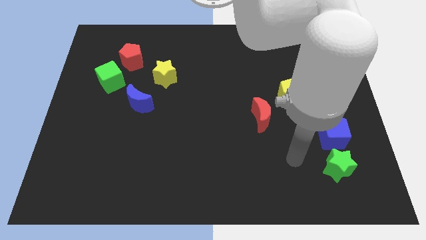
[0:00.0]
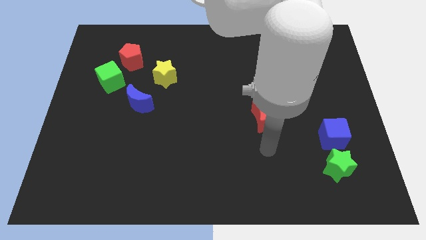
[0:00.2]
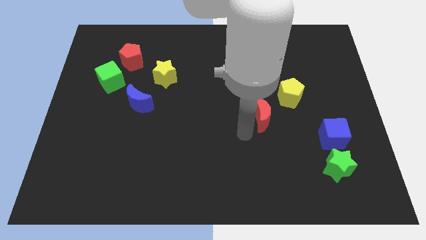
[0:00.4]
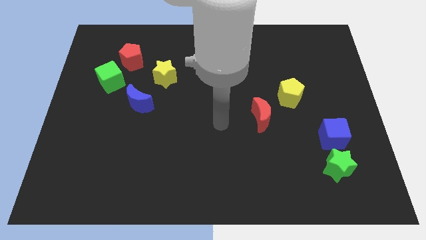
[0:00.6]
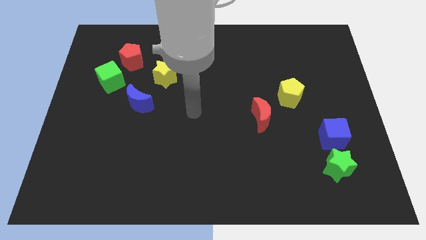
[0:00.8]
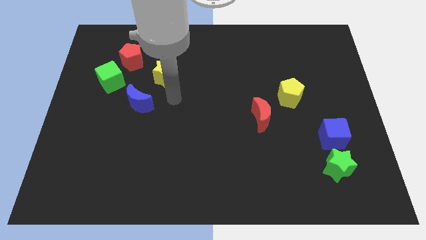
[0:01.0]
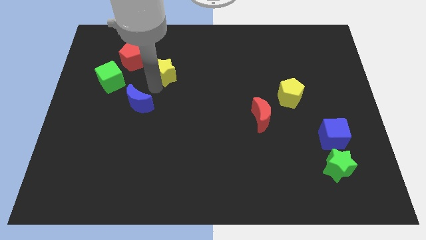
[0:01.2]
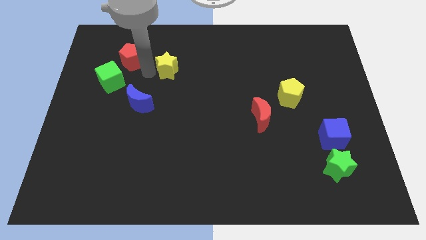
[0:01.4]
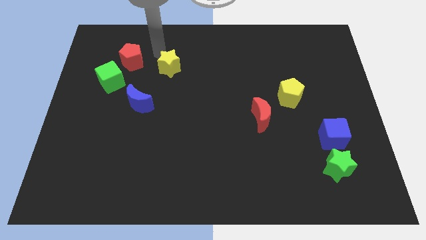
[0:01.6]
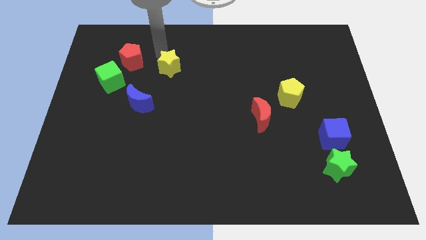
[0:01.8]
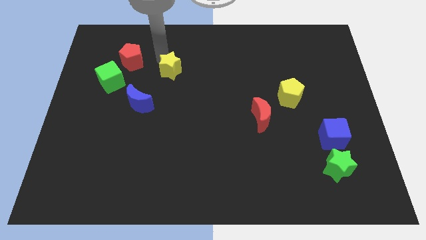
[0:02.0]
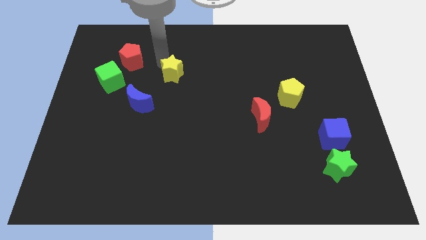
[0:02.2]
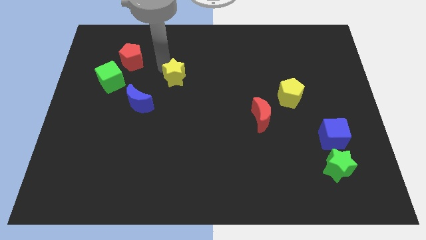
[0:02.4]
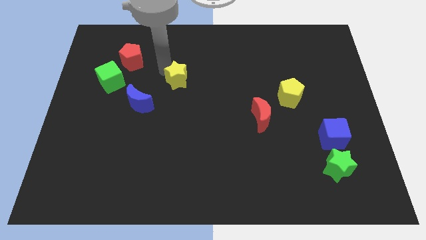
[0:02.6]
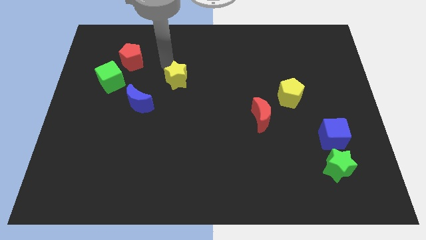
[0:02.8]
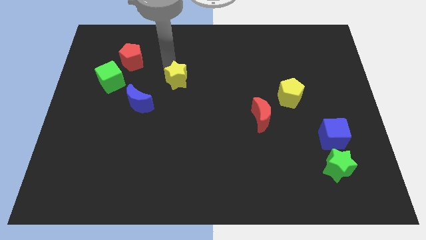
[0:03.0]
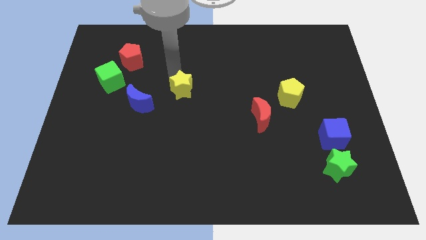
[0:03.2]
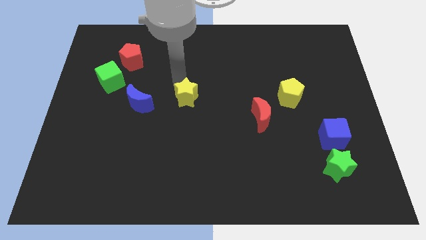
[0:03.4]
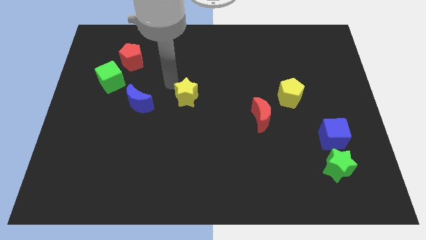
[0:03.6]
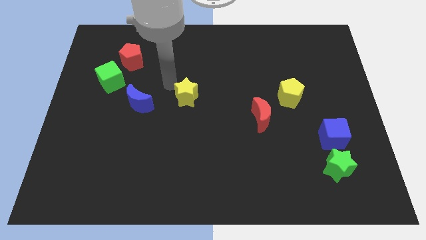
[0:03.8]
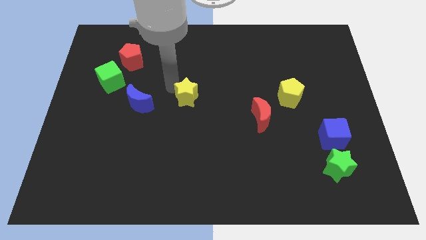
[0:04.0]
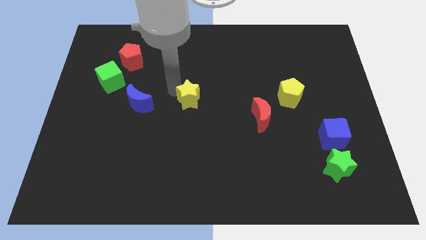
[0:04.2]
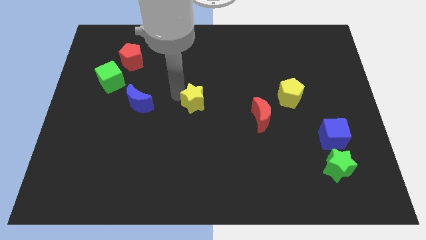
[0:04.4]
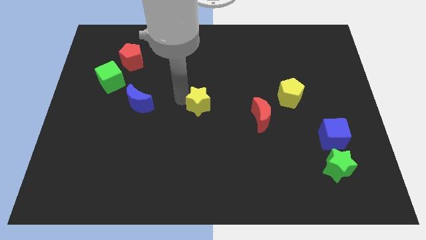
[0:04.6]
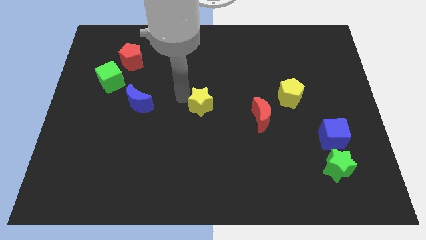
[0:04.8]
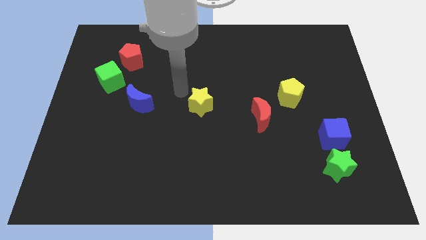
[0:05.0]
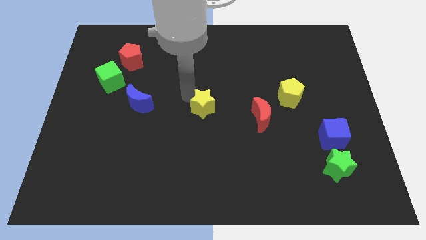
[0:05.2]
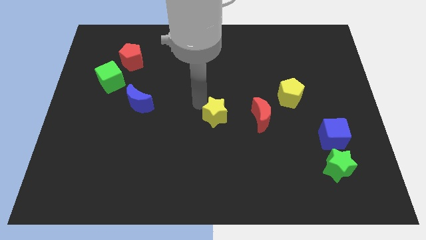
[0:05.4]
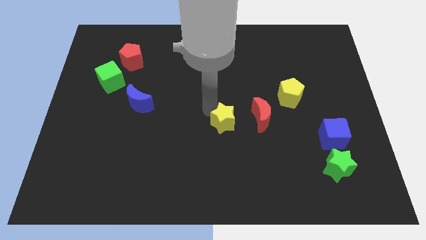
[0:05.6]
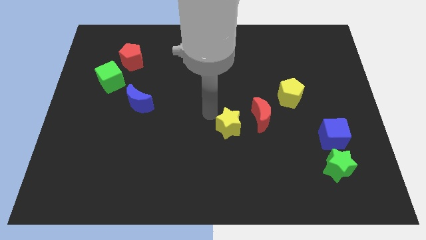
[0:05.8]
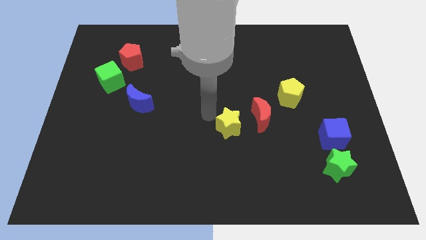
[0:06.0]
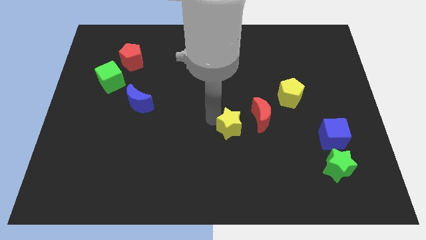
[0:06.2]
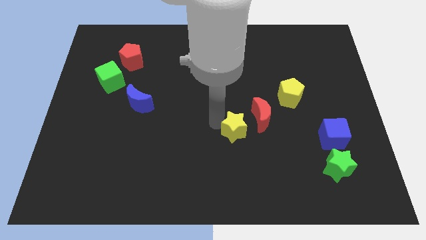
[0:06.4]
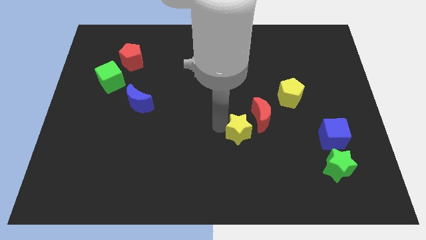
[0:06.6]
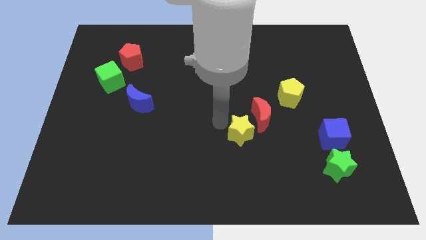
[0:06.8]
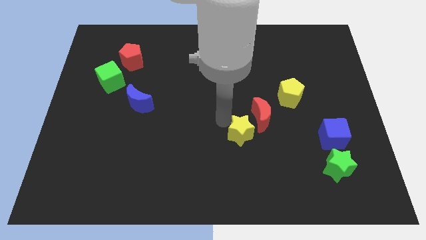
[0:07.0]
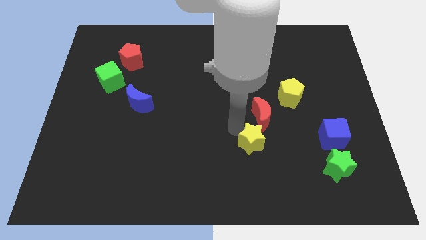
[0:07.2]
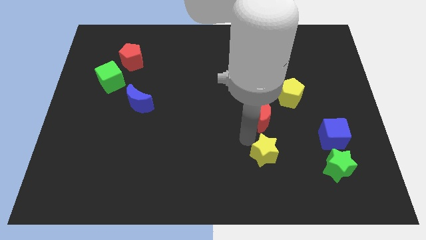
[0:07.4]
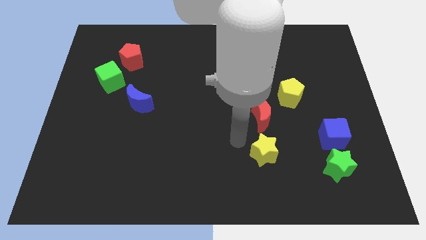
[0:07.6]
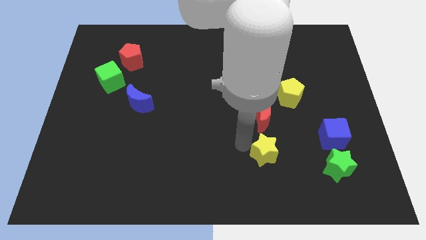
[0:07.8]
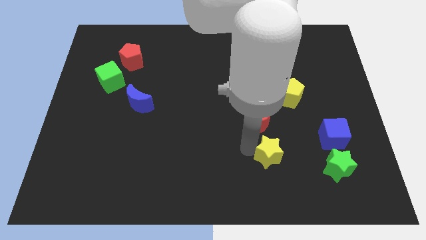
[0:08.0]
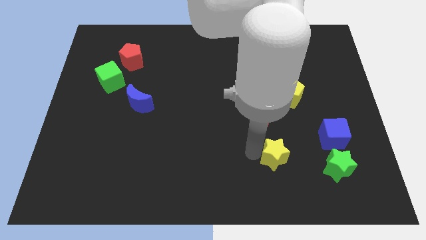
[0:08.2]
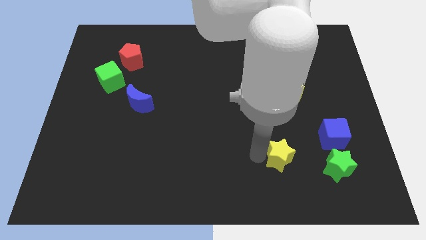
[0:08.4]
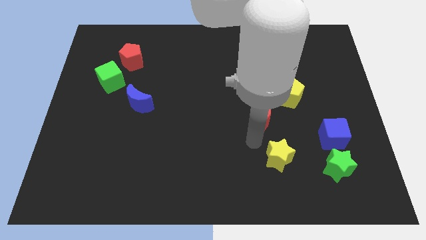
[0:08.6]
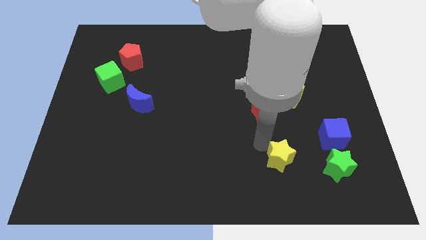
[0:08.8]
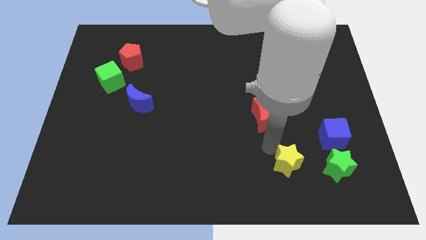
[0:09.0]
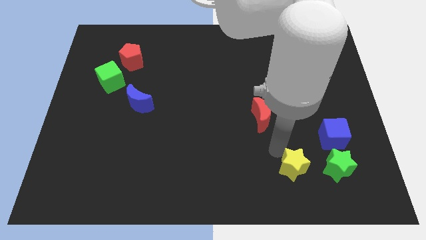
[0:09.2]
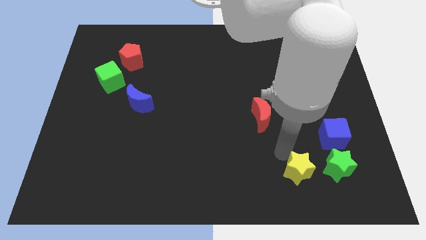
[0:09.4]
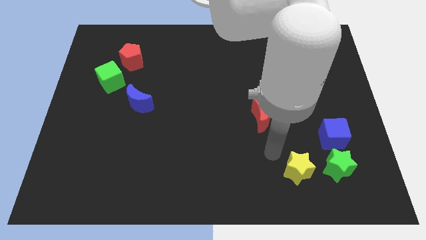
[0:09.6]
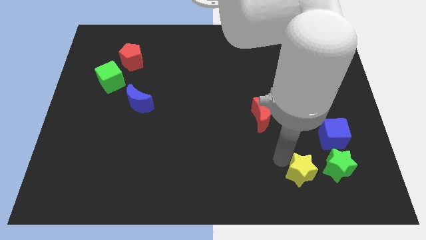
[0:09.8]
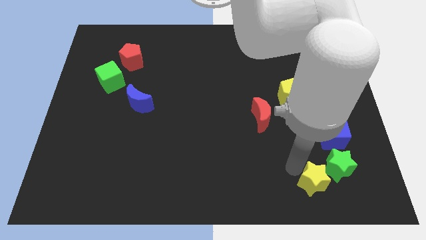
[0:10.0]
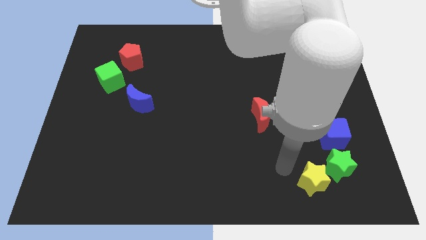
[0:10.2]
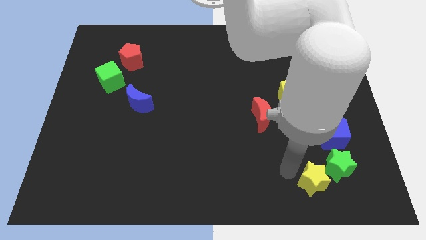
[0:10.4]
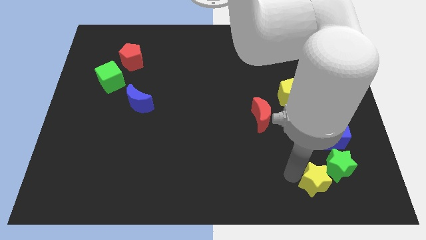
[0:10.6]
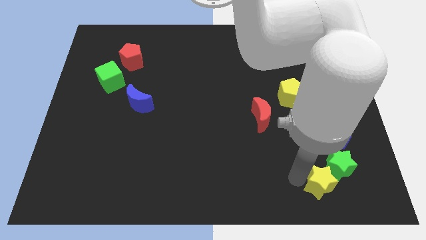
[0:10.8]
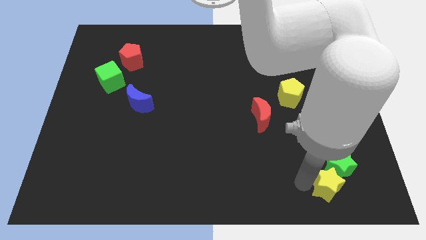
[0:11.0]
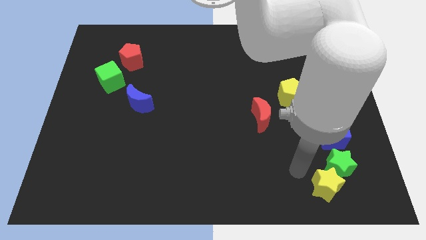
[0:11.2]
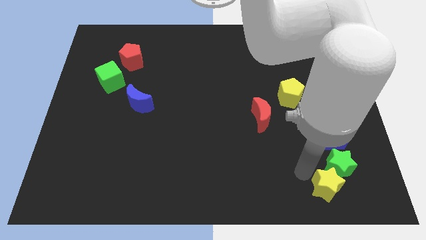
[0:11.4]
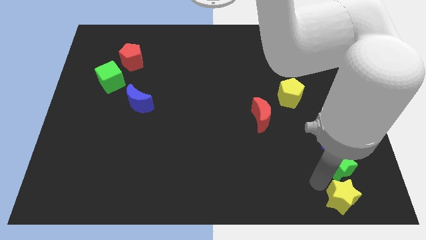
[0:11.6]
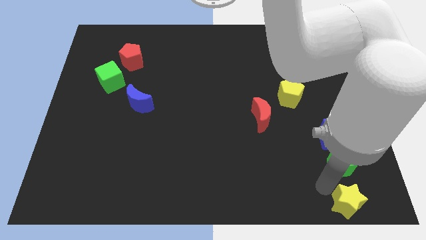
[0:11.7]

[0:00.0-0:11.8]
put the yellow star to the bottom right
